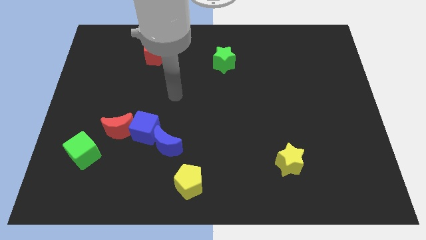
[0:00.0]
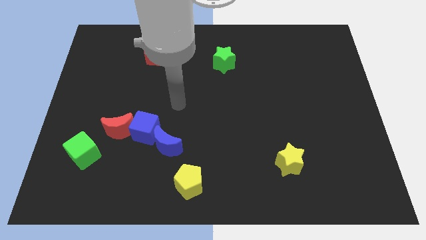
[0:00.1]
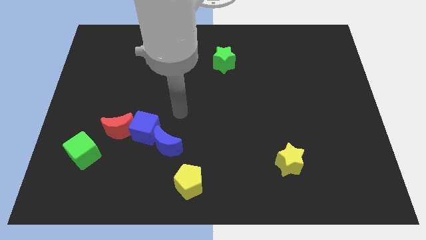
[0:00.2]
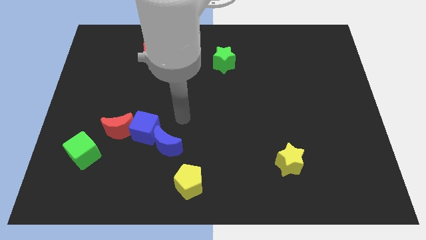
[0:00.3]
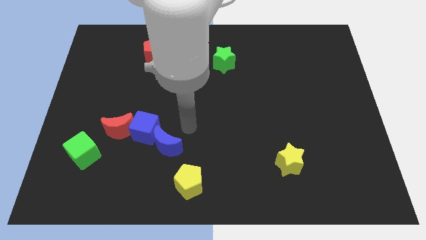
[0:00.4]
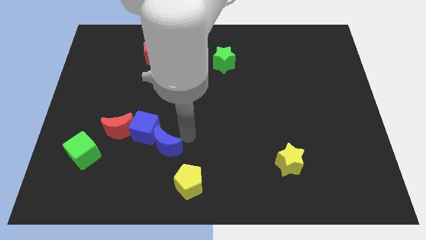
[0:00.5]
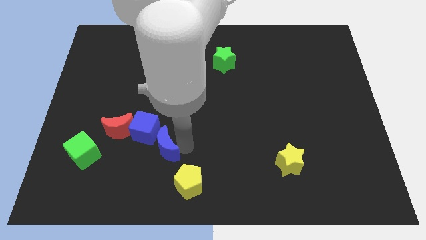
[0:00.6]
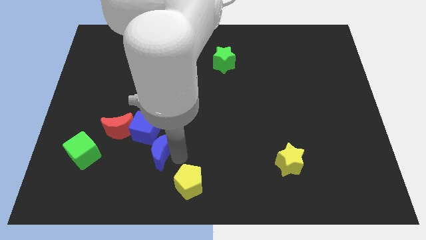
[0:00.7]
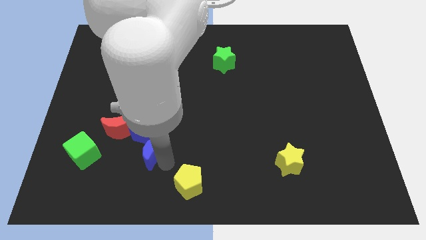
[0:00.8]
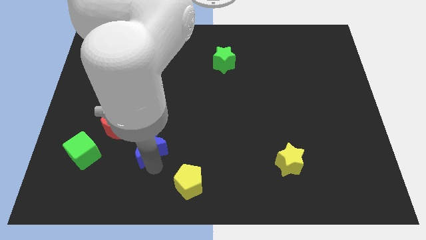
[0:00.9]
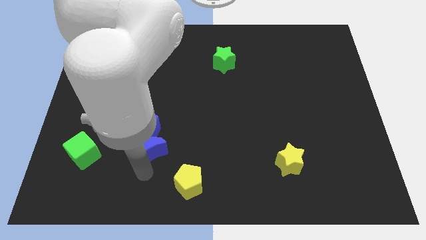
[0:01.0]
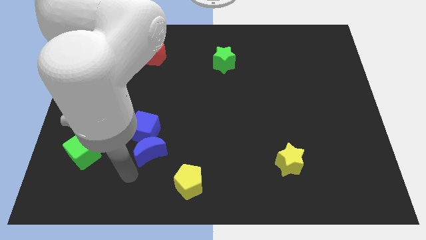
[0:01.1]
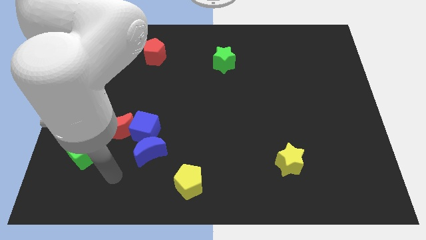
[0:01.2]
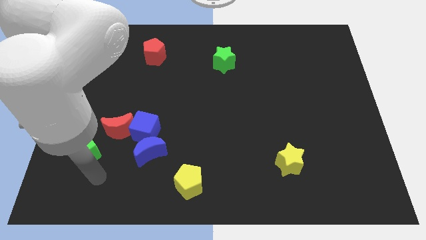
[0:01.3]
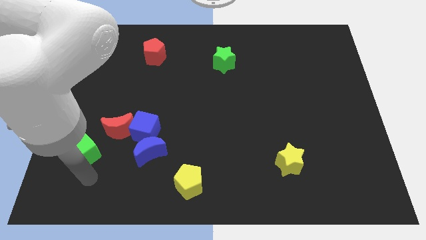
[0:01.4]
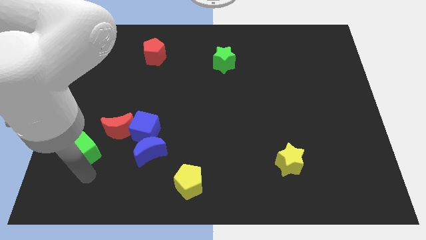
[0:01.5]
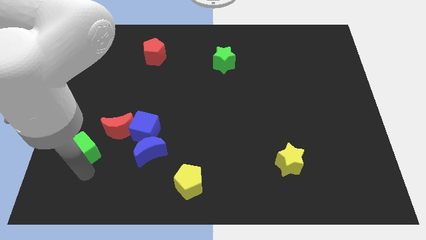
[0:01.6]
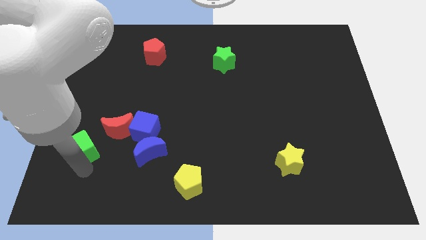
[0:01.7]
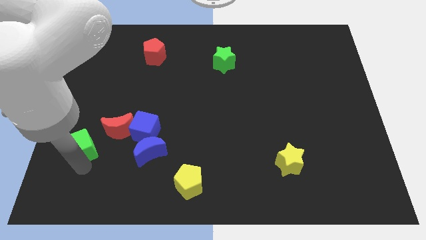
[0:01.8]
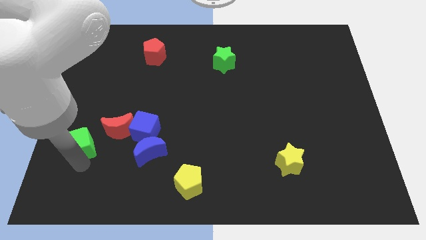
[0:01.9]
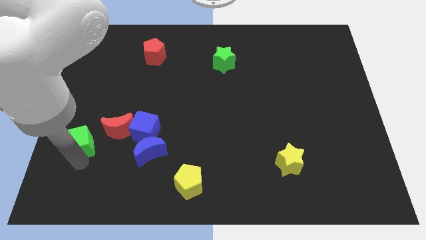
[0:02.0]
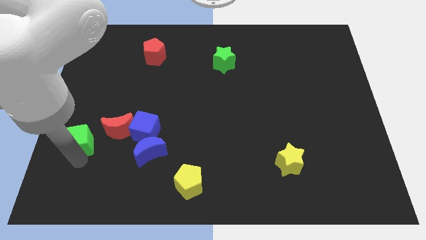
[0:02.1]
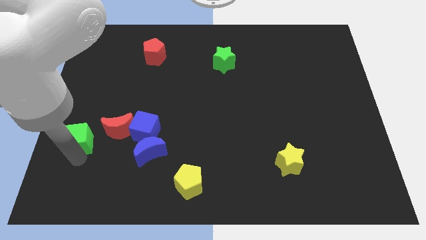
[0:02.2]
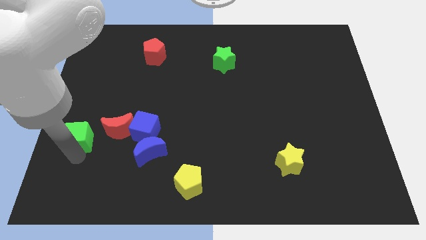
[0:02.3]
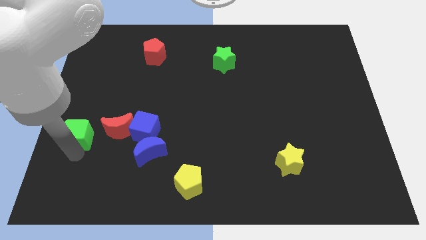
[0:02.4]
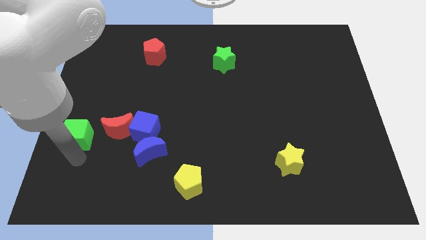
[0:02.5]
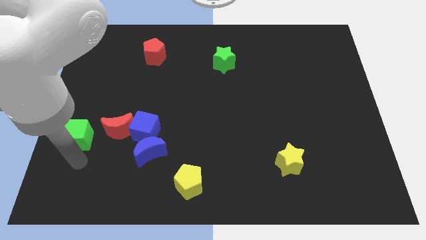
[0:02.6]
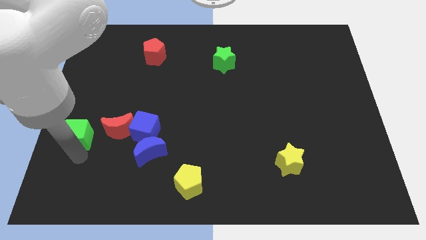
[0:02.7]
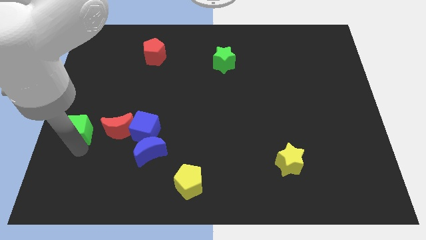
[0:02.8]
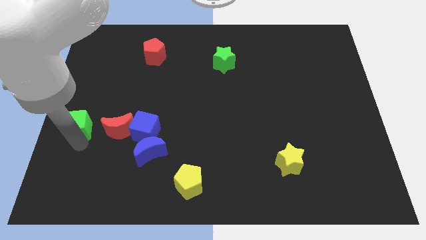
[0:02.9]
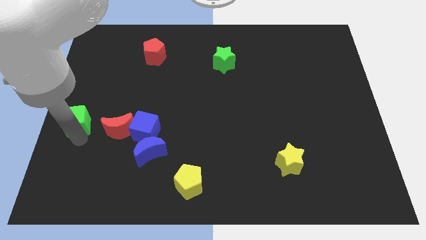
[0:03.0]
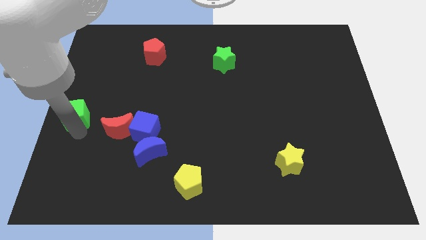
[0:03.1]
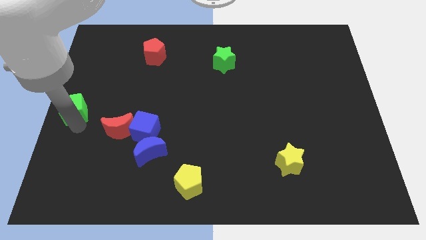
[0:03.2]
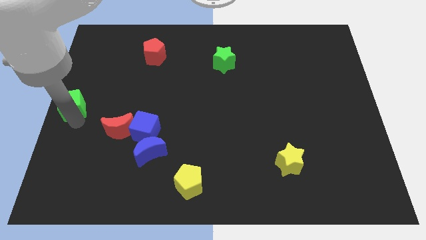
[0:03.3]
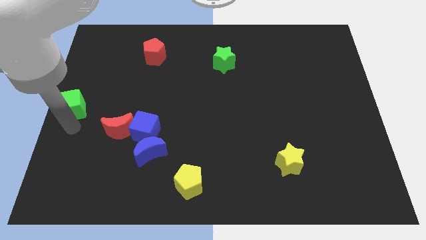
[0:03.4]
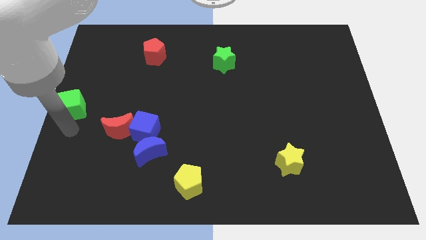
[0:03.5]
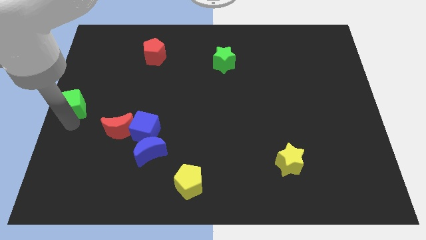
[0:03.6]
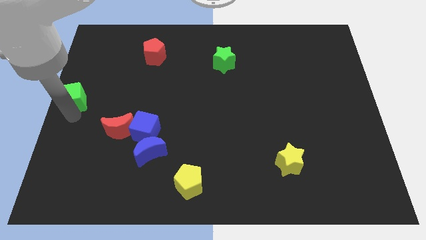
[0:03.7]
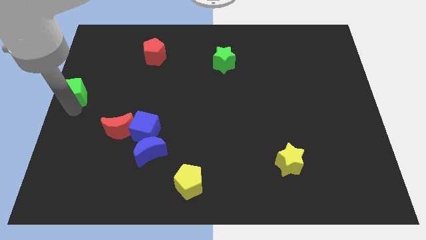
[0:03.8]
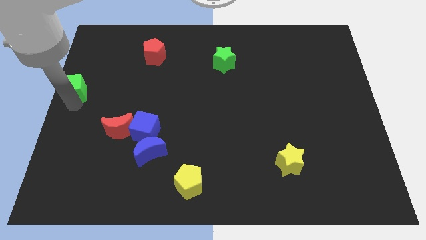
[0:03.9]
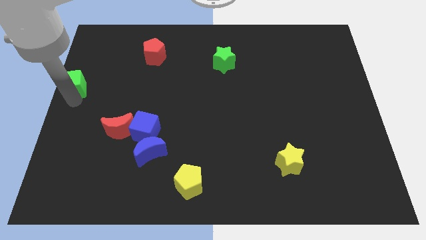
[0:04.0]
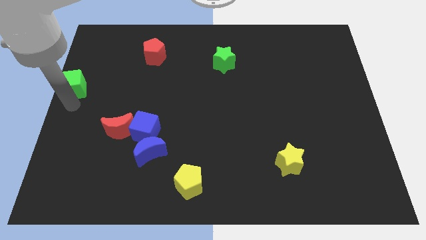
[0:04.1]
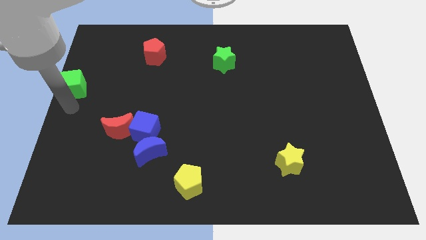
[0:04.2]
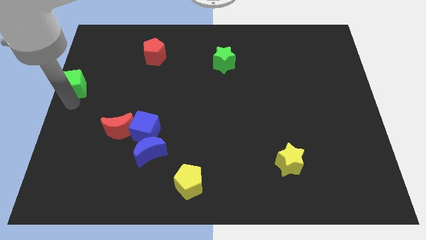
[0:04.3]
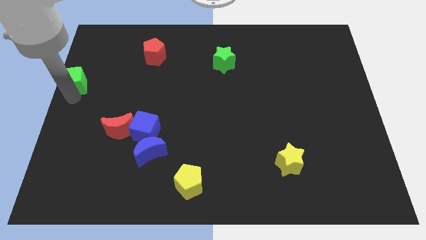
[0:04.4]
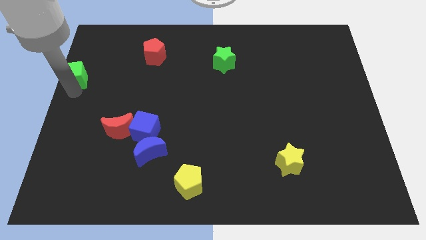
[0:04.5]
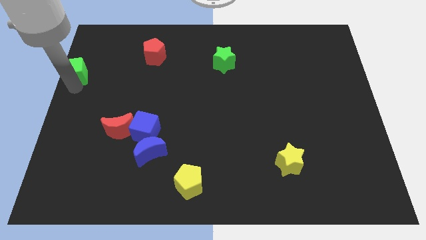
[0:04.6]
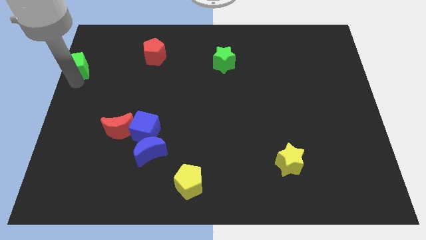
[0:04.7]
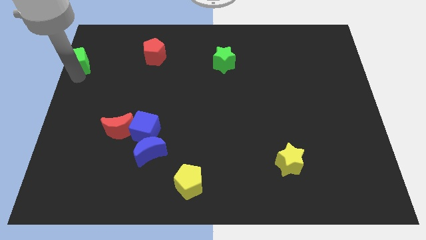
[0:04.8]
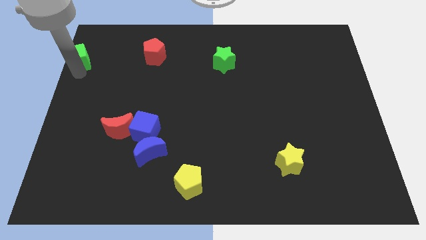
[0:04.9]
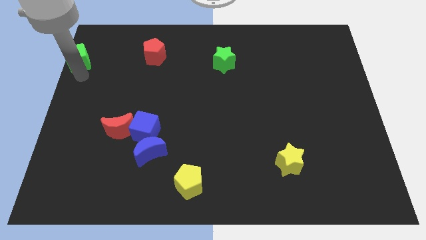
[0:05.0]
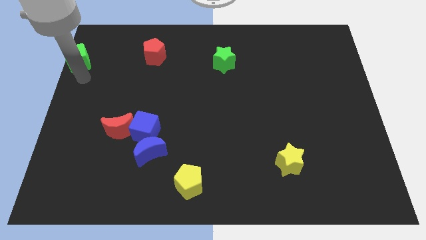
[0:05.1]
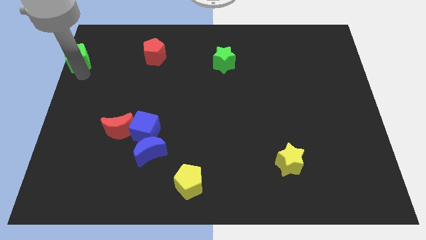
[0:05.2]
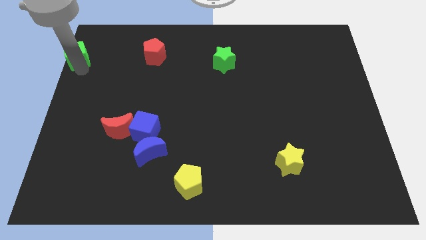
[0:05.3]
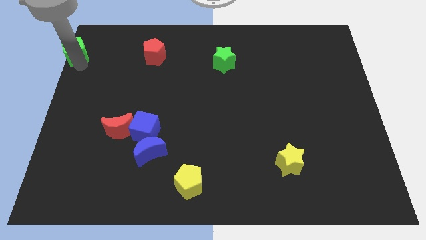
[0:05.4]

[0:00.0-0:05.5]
put the green cube to the top left corner

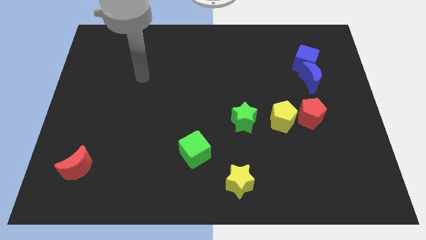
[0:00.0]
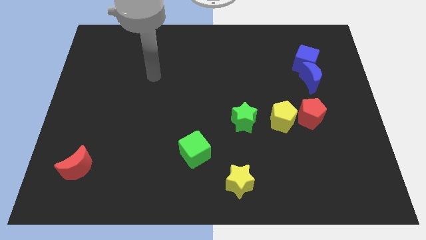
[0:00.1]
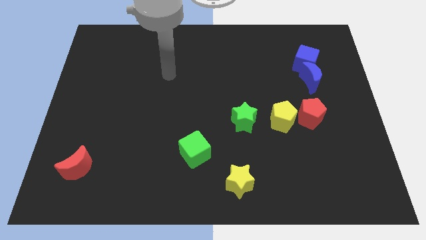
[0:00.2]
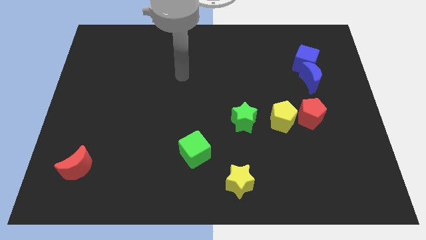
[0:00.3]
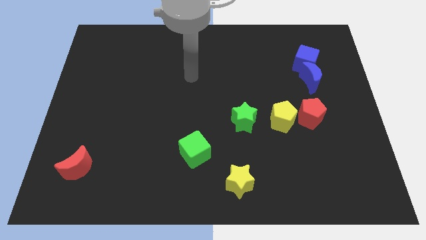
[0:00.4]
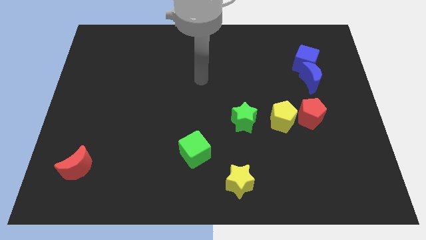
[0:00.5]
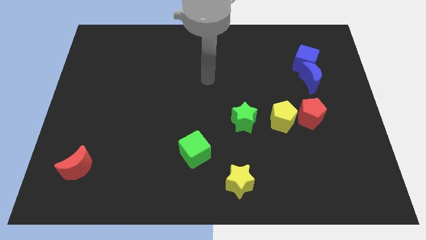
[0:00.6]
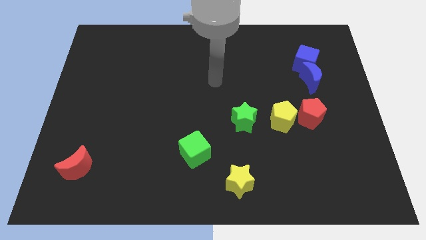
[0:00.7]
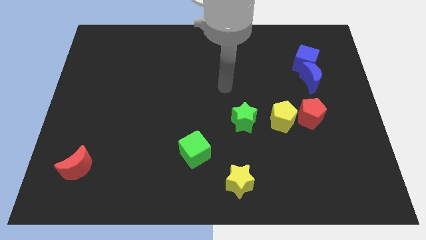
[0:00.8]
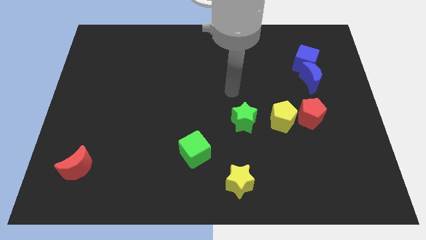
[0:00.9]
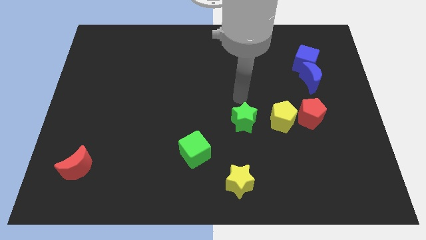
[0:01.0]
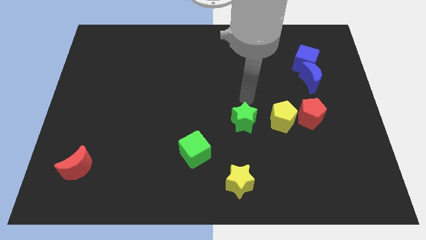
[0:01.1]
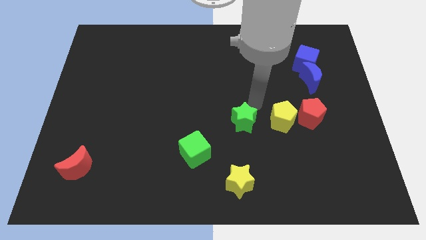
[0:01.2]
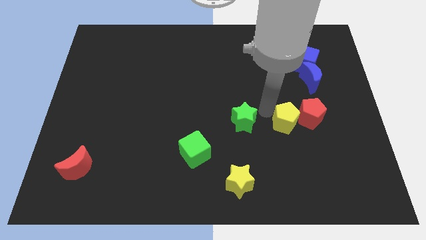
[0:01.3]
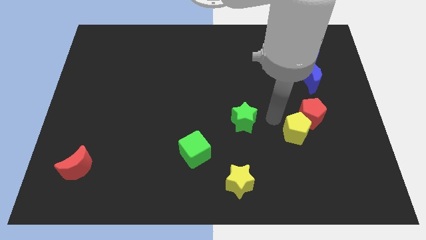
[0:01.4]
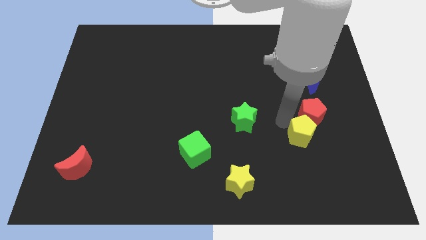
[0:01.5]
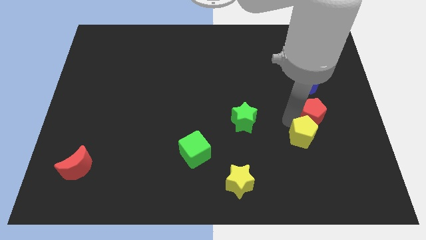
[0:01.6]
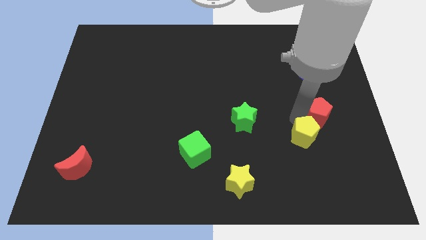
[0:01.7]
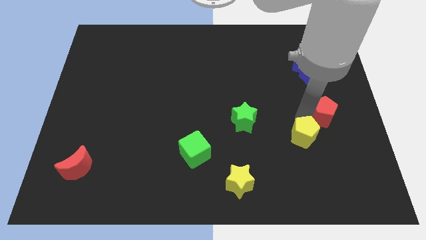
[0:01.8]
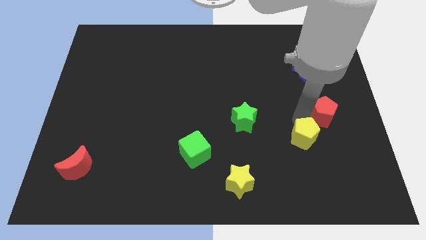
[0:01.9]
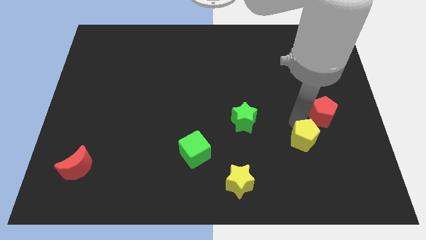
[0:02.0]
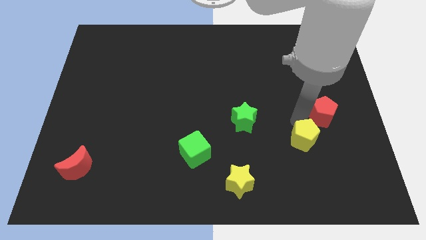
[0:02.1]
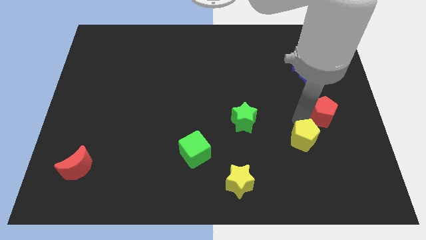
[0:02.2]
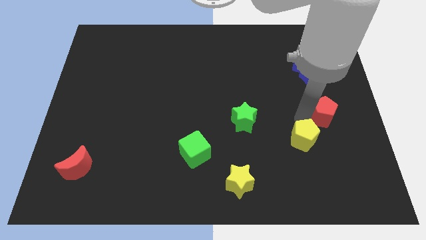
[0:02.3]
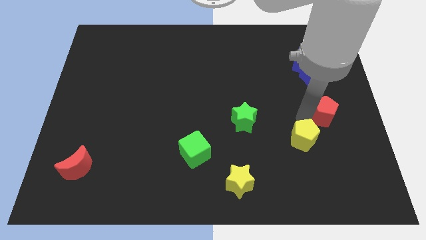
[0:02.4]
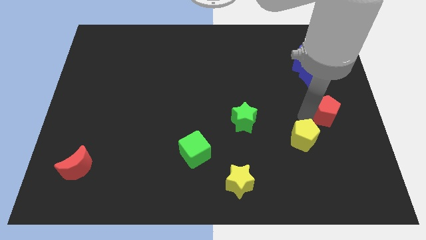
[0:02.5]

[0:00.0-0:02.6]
push the red pentagon to the right side of the board
